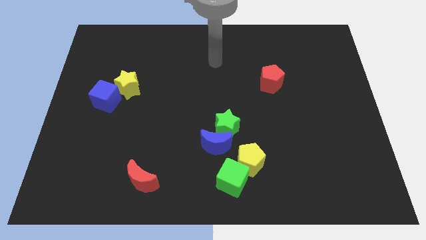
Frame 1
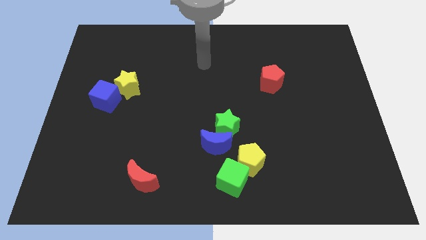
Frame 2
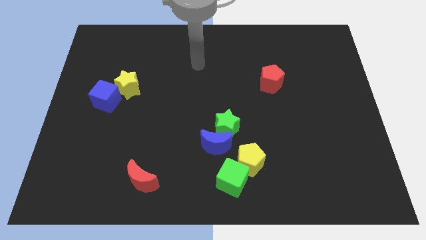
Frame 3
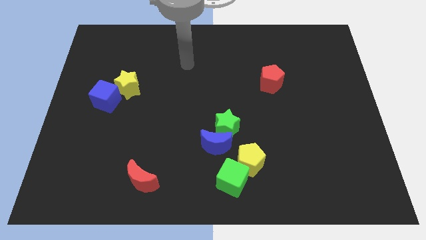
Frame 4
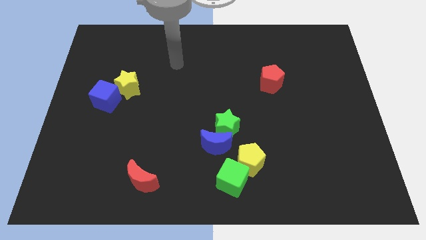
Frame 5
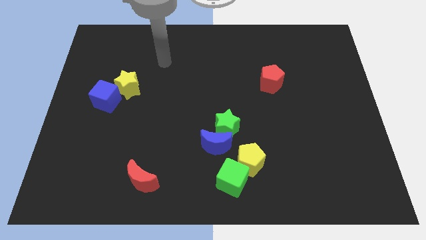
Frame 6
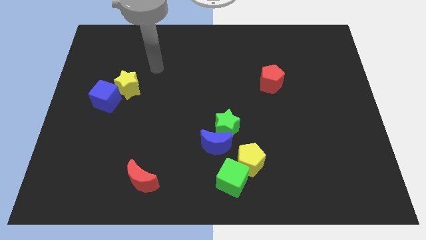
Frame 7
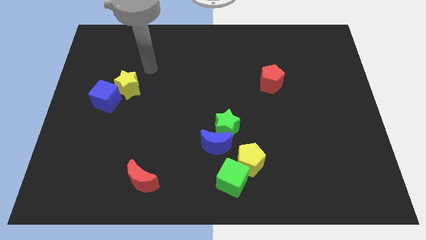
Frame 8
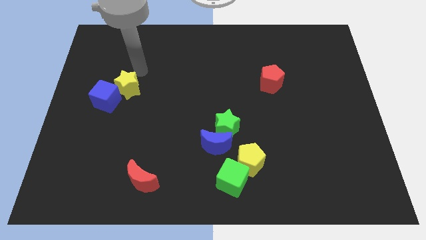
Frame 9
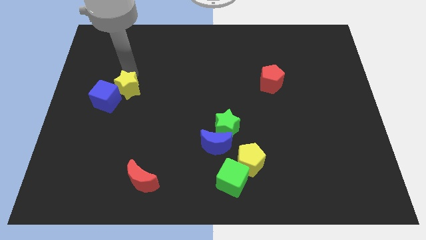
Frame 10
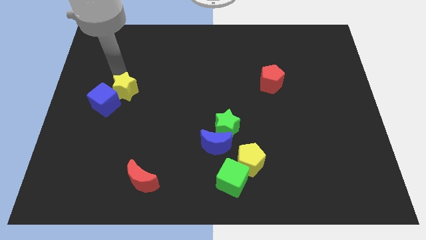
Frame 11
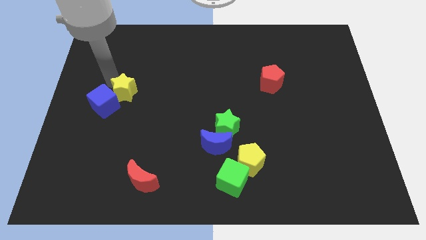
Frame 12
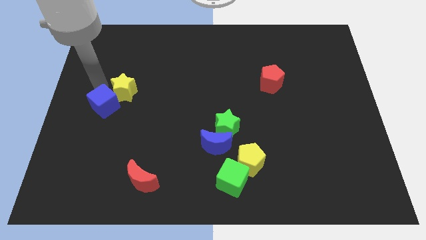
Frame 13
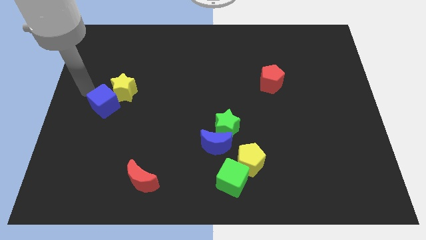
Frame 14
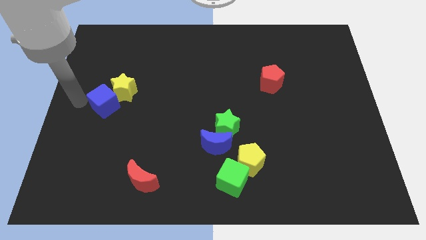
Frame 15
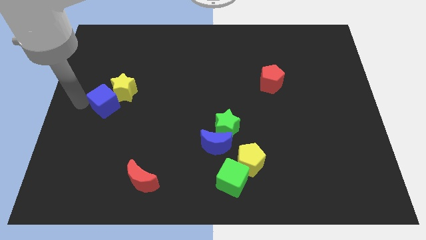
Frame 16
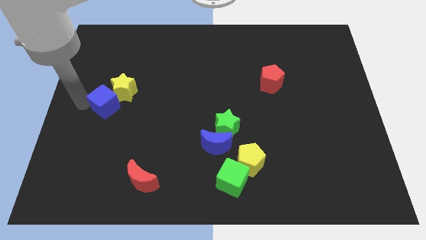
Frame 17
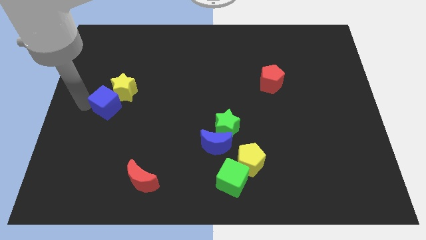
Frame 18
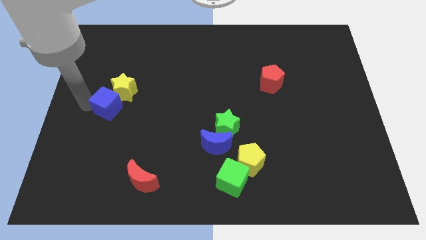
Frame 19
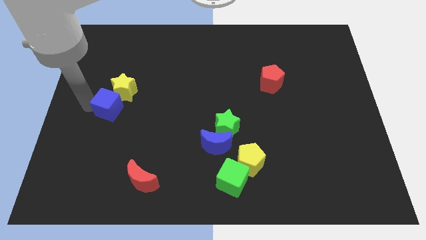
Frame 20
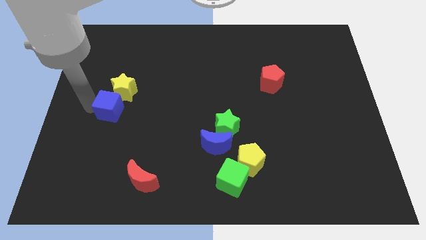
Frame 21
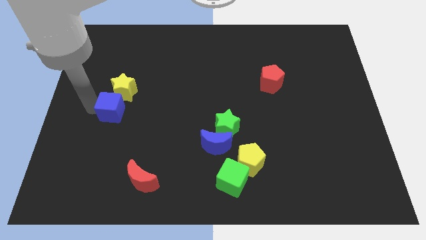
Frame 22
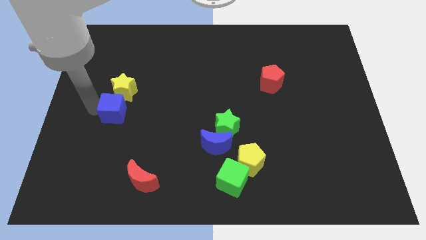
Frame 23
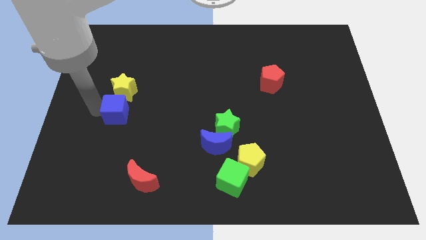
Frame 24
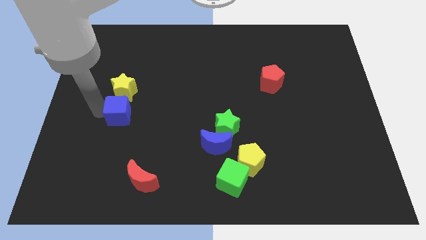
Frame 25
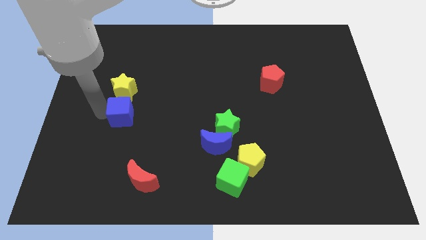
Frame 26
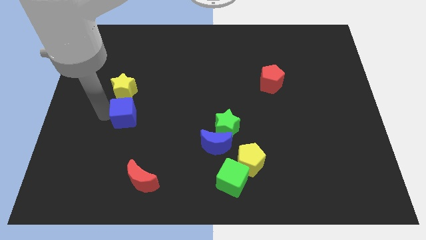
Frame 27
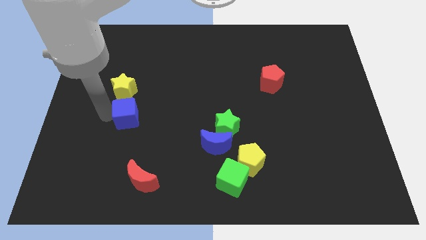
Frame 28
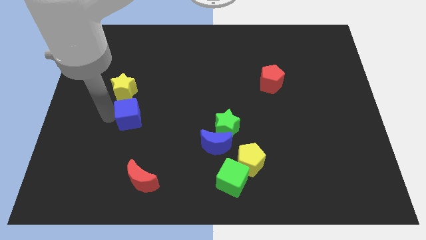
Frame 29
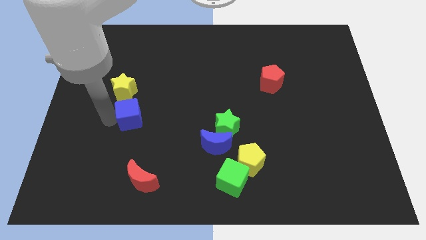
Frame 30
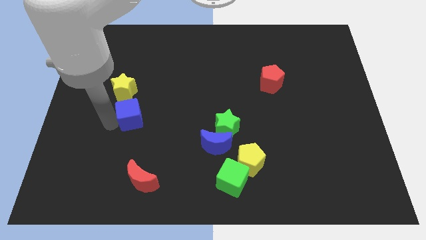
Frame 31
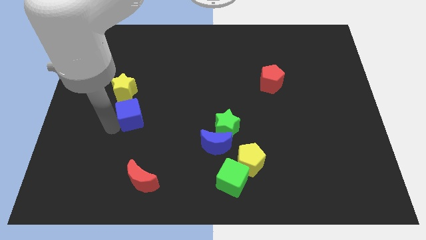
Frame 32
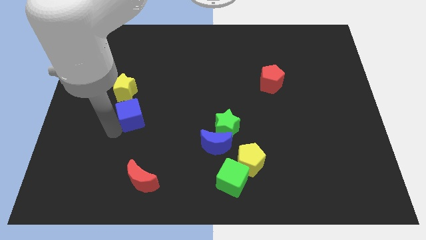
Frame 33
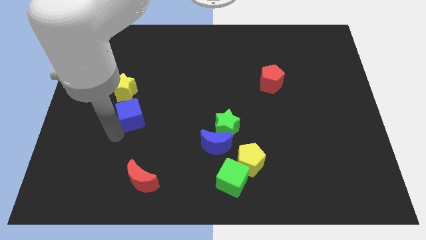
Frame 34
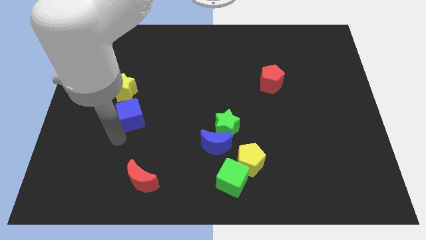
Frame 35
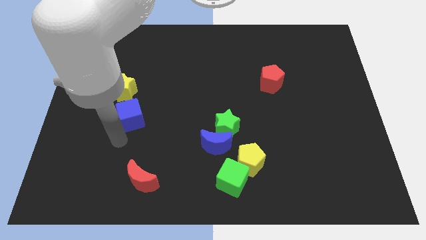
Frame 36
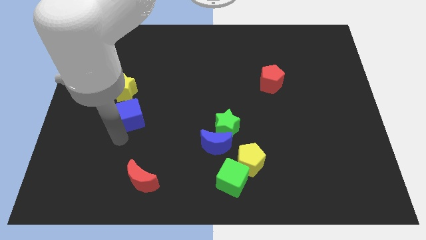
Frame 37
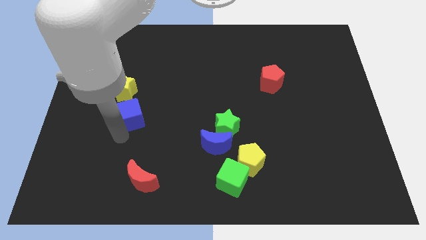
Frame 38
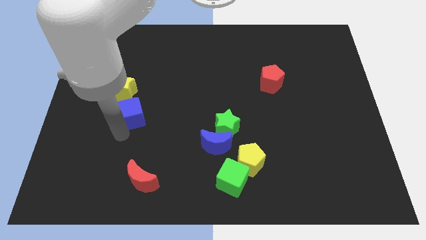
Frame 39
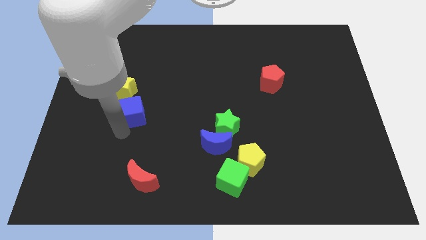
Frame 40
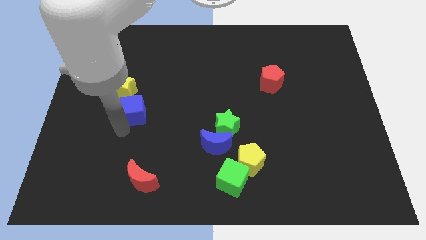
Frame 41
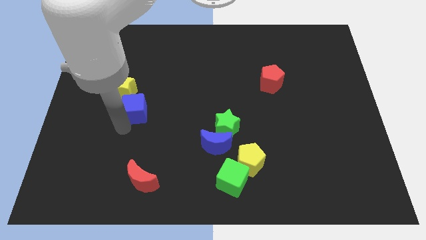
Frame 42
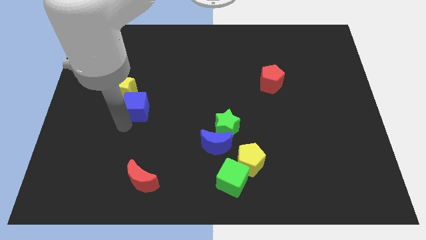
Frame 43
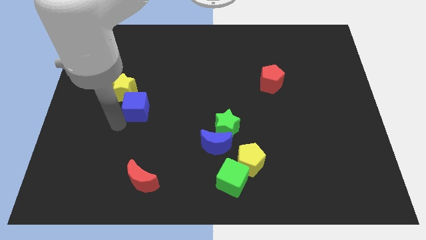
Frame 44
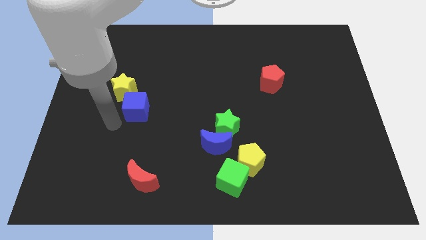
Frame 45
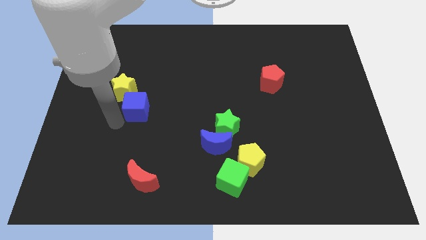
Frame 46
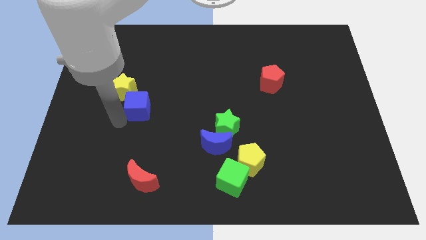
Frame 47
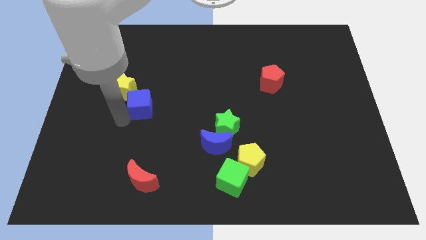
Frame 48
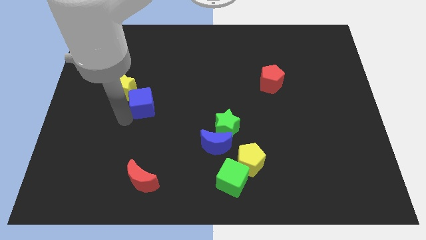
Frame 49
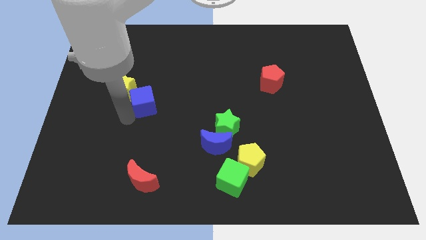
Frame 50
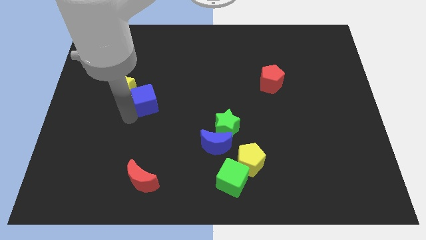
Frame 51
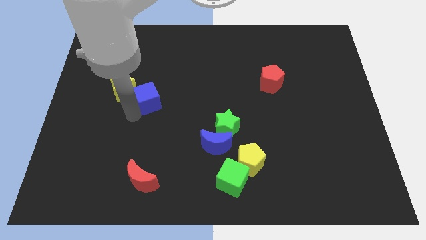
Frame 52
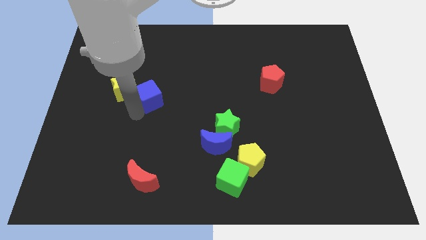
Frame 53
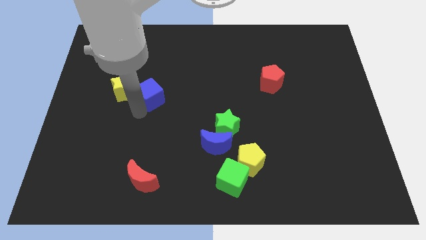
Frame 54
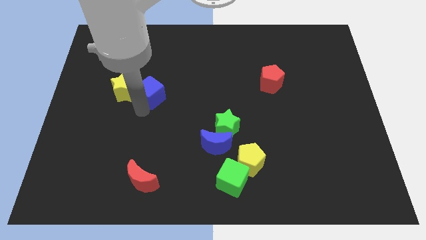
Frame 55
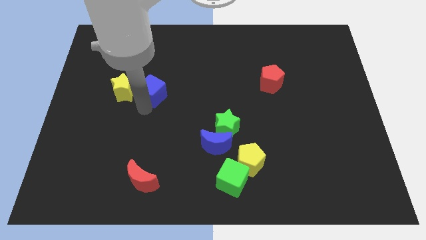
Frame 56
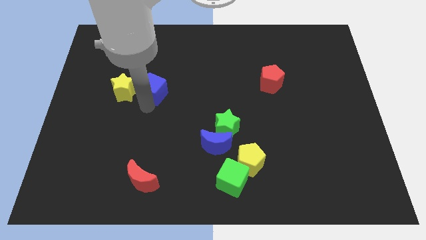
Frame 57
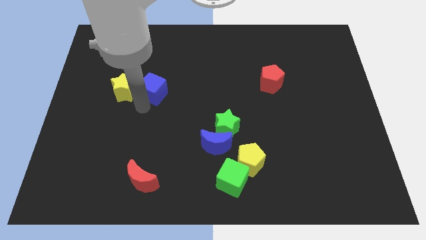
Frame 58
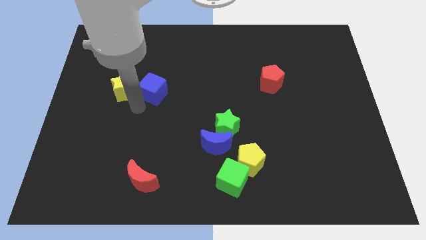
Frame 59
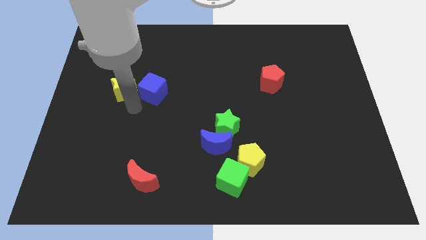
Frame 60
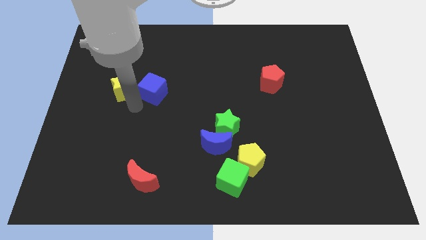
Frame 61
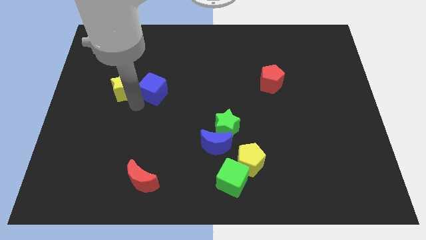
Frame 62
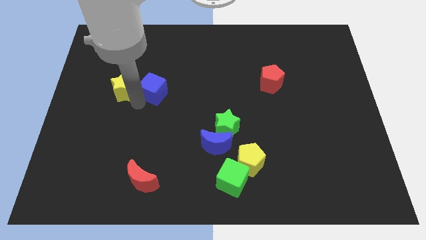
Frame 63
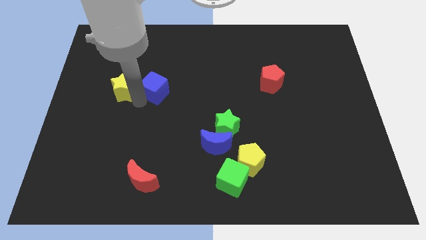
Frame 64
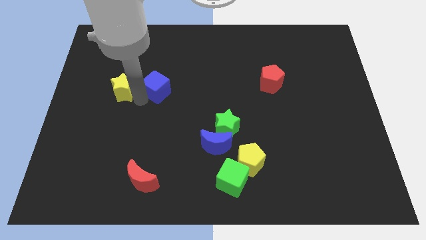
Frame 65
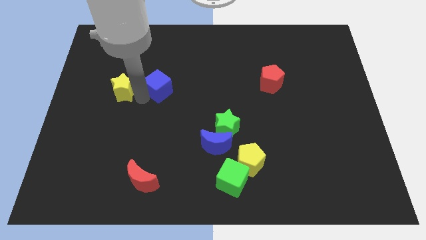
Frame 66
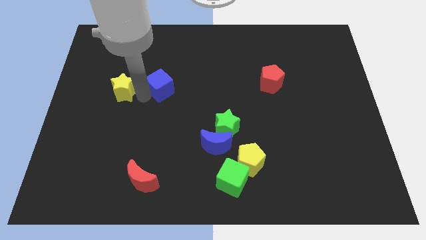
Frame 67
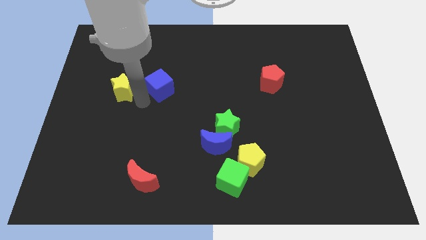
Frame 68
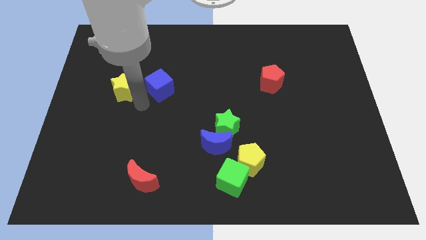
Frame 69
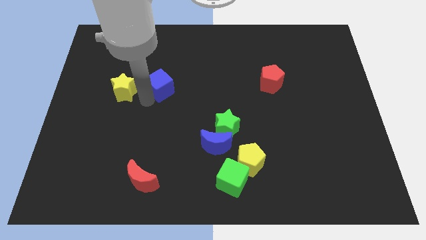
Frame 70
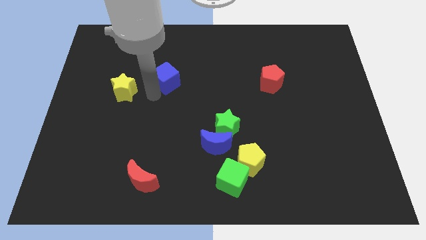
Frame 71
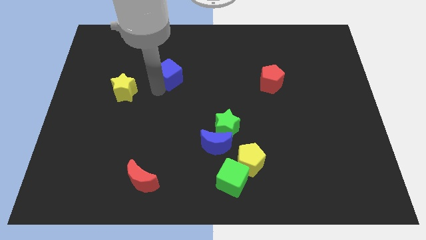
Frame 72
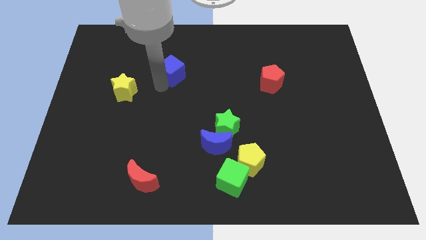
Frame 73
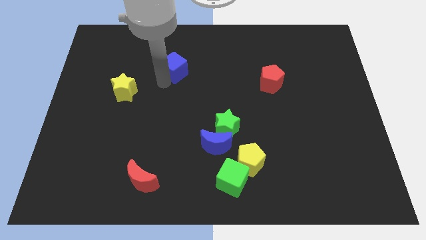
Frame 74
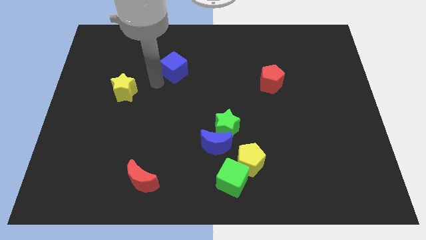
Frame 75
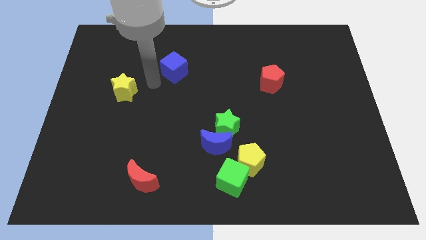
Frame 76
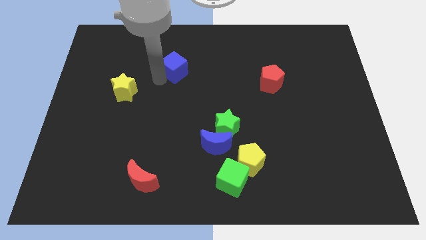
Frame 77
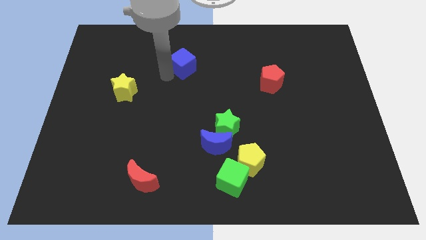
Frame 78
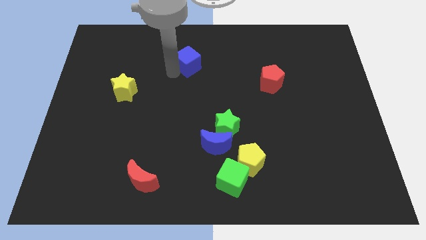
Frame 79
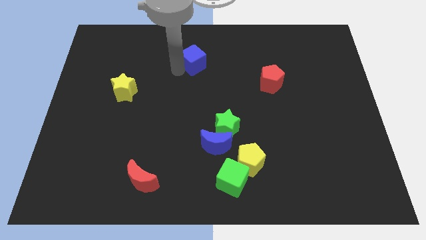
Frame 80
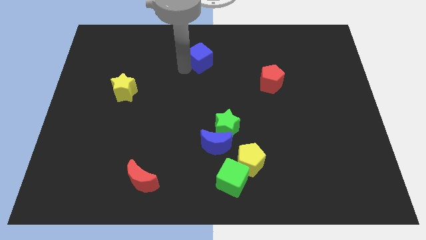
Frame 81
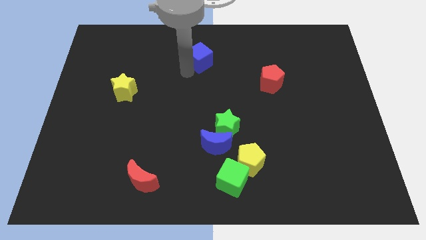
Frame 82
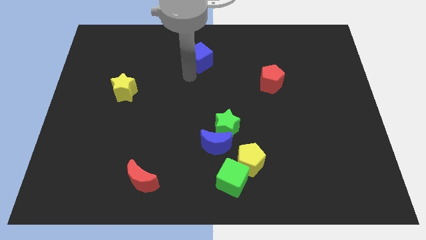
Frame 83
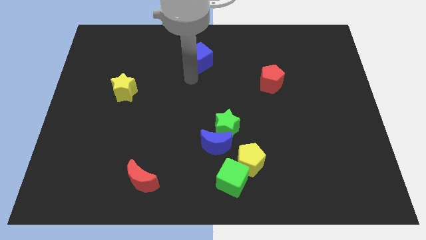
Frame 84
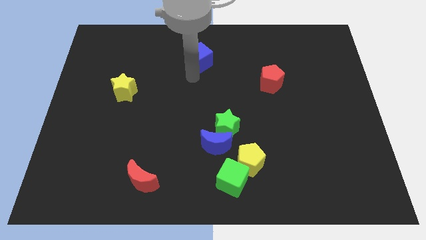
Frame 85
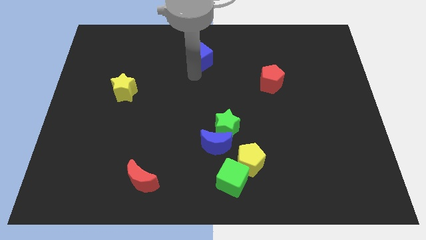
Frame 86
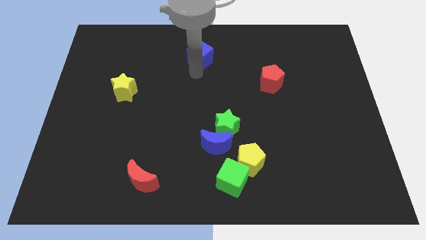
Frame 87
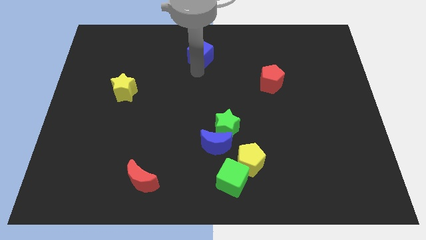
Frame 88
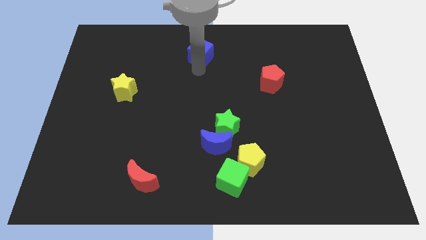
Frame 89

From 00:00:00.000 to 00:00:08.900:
slide the blue cube to the top side
